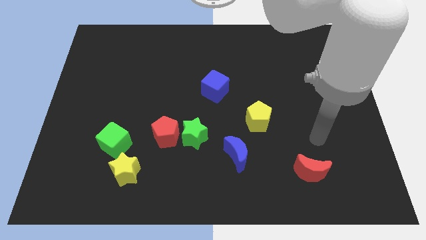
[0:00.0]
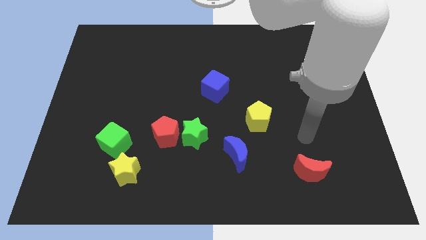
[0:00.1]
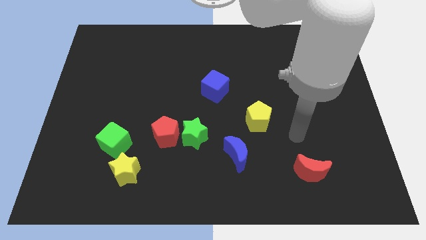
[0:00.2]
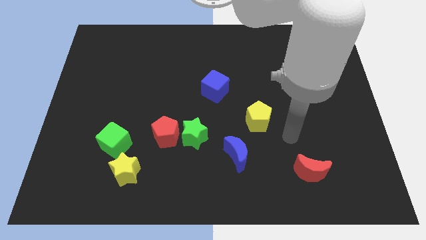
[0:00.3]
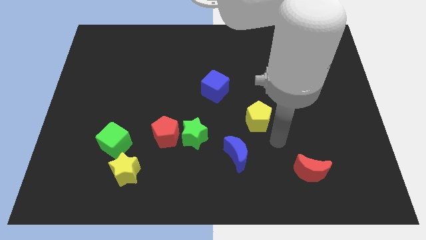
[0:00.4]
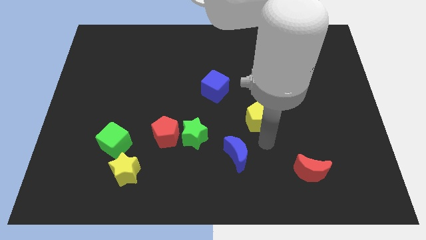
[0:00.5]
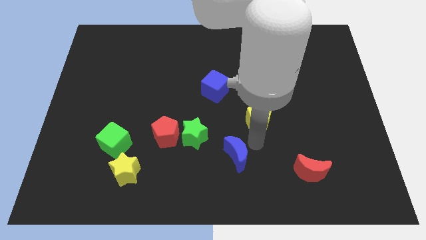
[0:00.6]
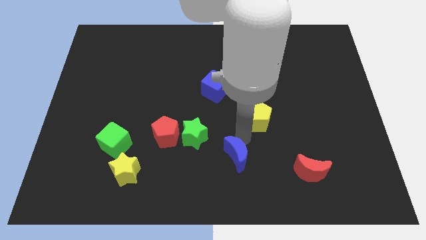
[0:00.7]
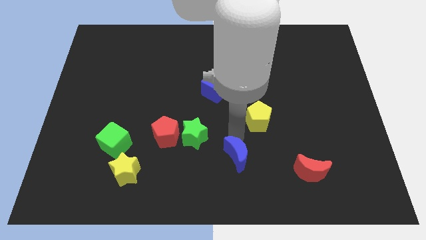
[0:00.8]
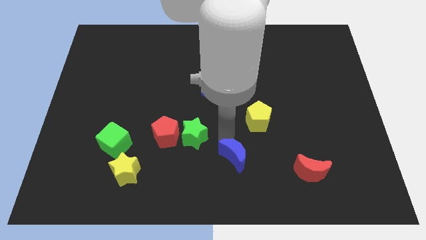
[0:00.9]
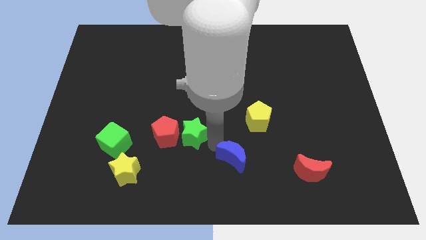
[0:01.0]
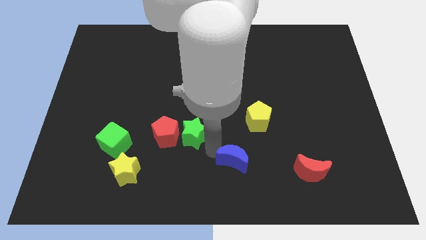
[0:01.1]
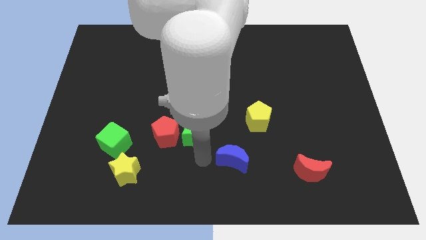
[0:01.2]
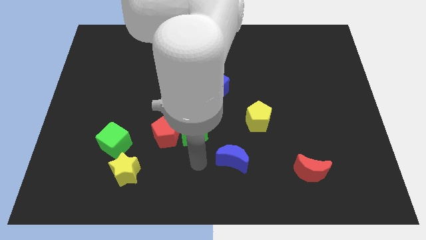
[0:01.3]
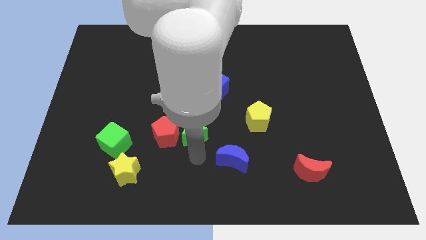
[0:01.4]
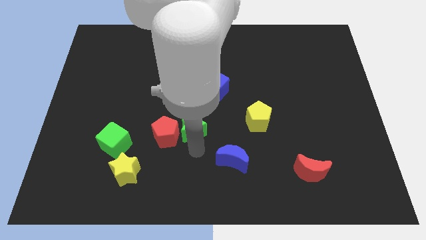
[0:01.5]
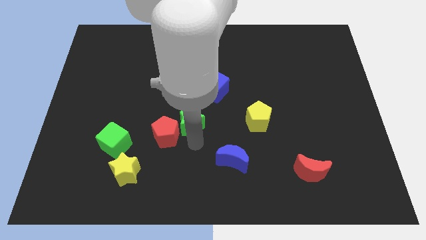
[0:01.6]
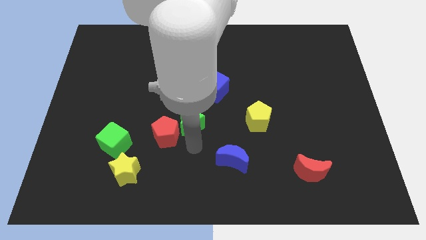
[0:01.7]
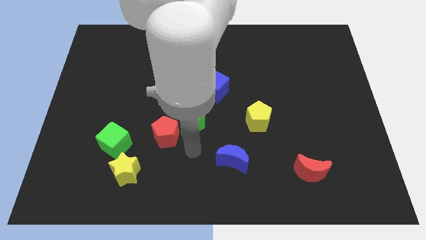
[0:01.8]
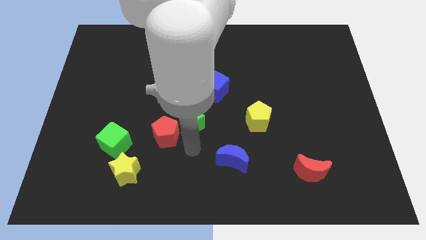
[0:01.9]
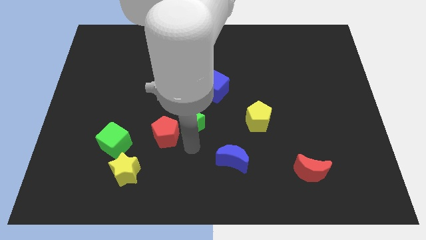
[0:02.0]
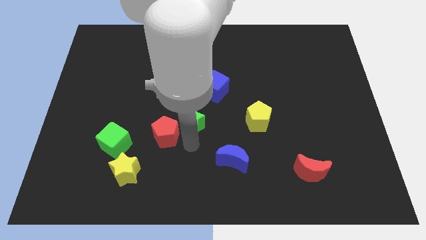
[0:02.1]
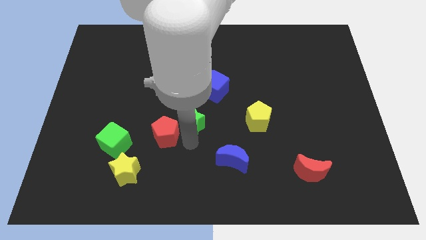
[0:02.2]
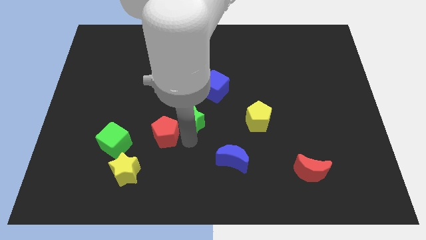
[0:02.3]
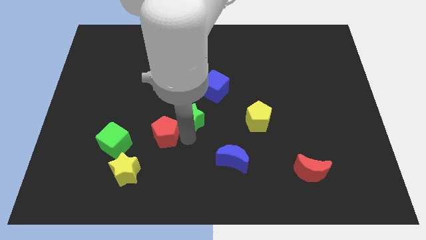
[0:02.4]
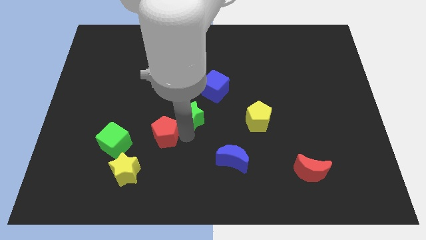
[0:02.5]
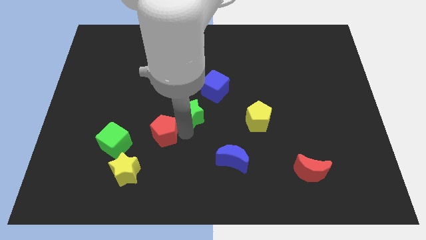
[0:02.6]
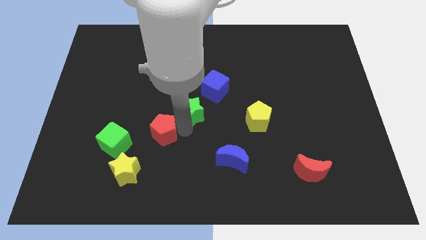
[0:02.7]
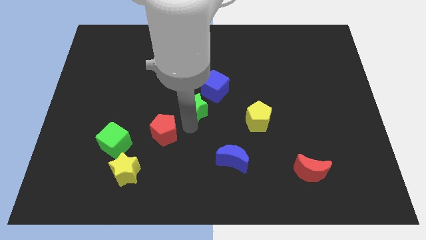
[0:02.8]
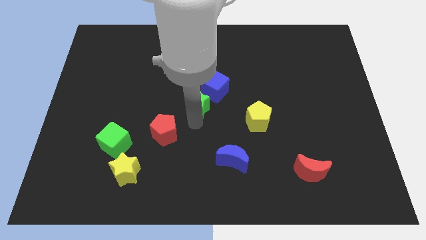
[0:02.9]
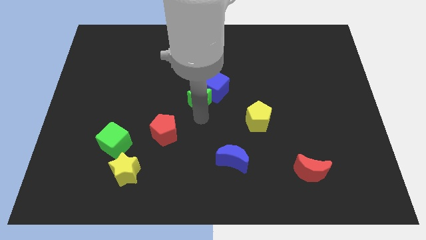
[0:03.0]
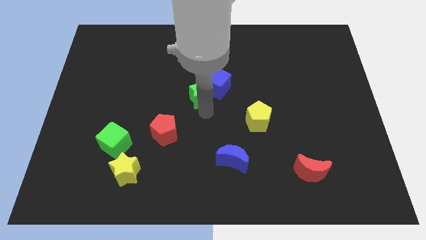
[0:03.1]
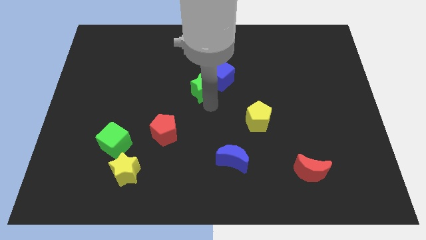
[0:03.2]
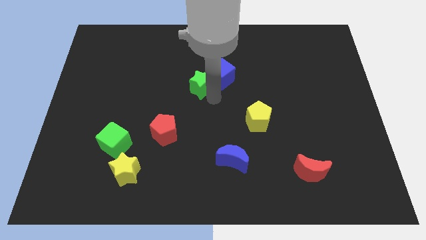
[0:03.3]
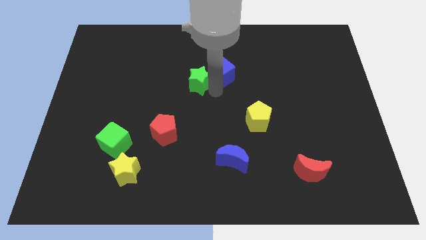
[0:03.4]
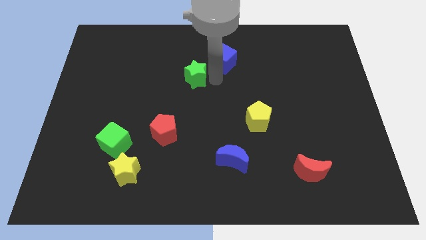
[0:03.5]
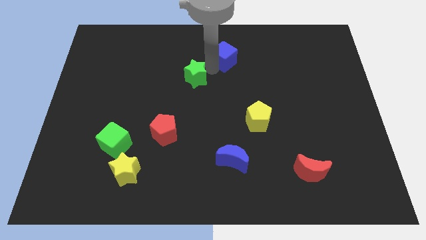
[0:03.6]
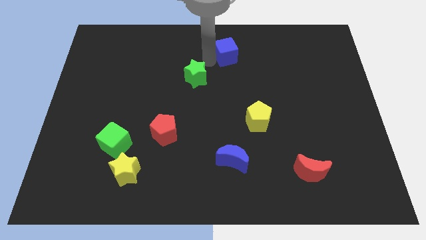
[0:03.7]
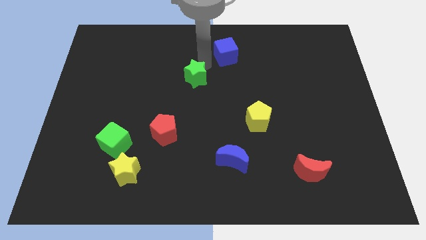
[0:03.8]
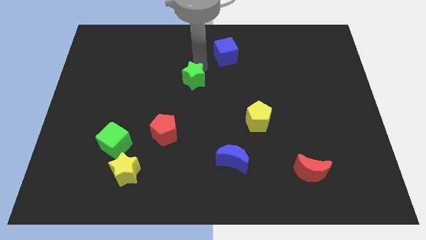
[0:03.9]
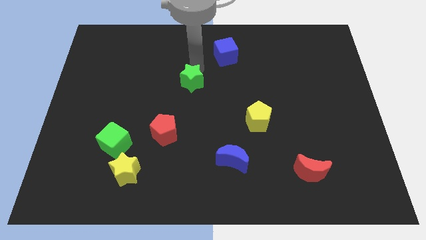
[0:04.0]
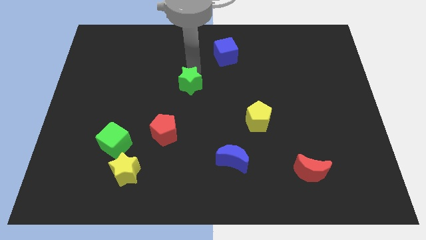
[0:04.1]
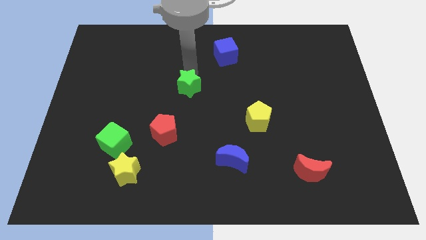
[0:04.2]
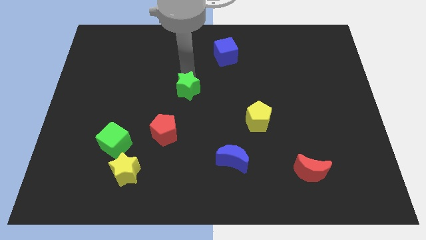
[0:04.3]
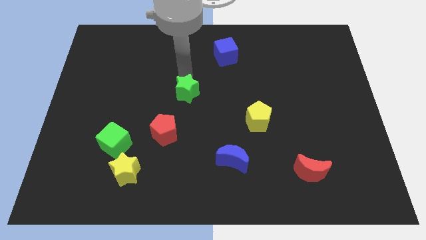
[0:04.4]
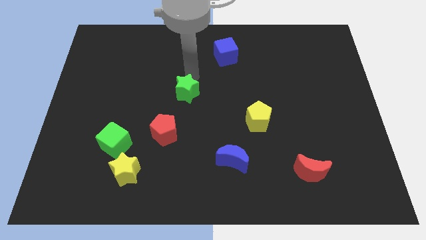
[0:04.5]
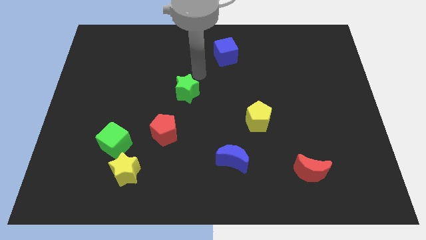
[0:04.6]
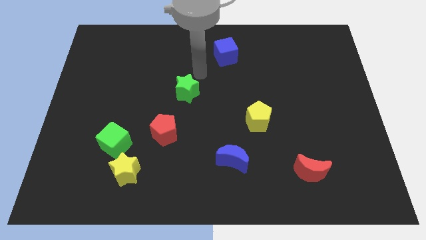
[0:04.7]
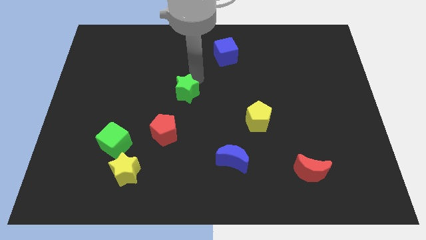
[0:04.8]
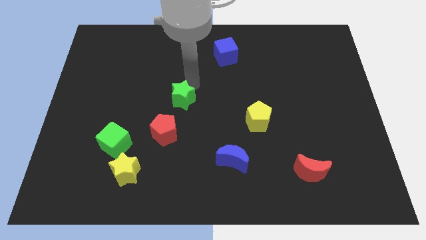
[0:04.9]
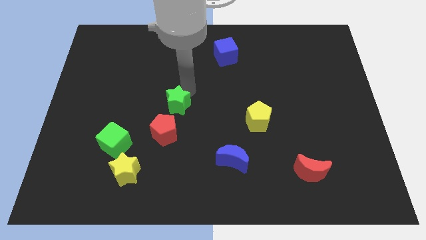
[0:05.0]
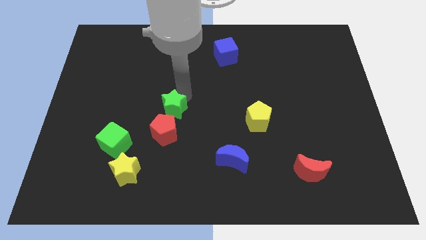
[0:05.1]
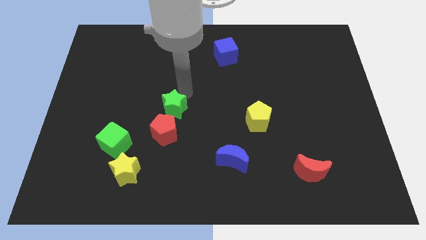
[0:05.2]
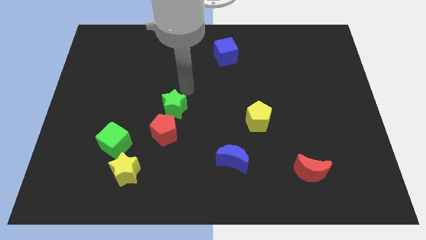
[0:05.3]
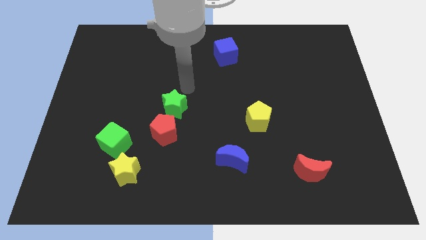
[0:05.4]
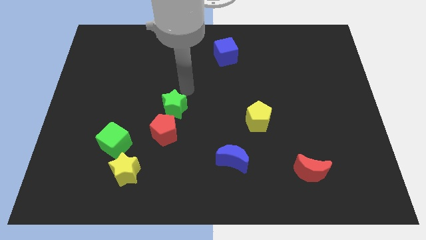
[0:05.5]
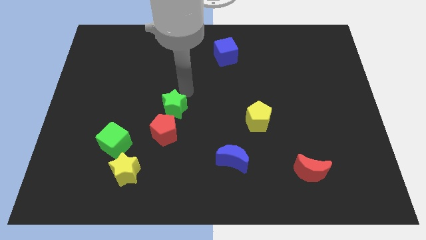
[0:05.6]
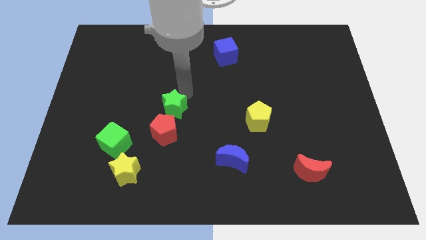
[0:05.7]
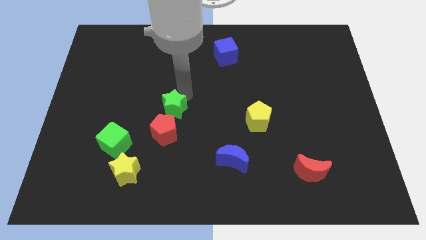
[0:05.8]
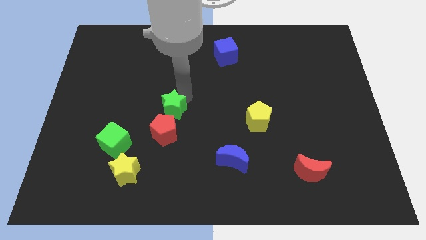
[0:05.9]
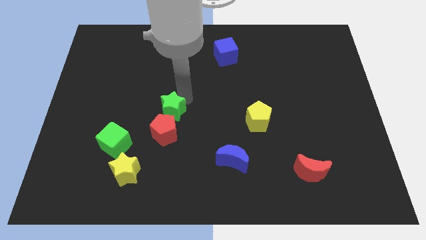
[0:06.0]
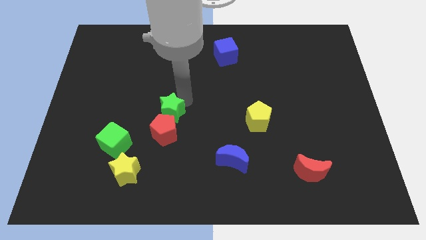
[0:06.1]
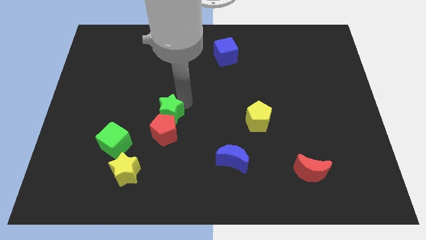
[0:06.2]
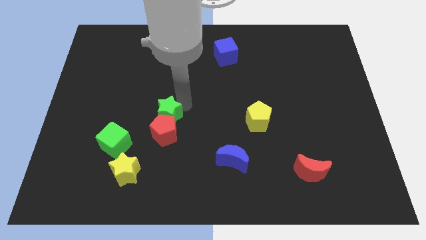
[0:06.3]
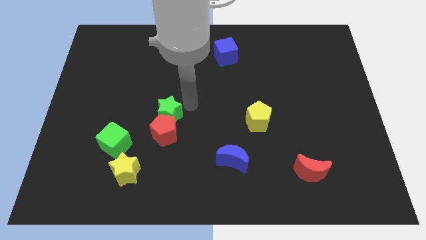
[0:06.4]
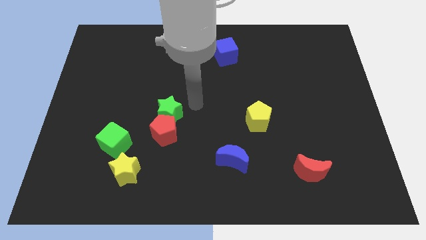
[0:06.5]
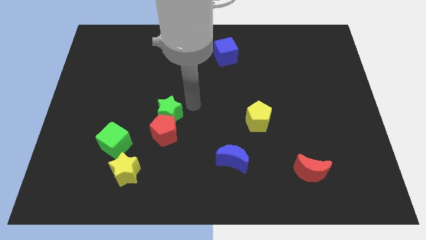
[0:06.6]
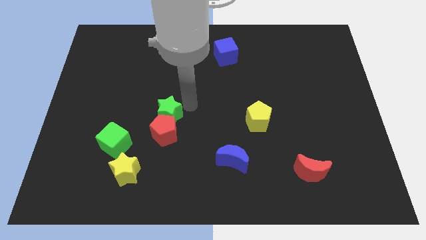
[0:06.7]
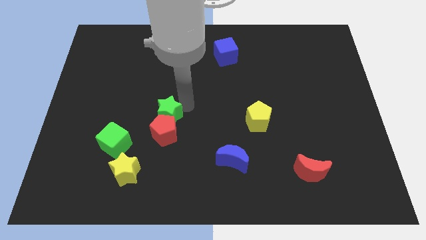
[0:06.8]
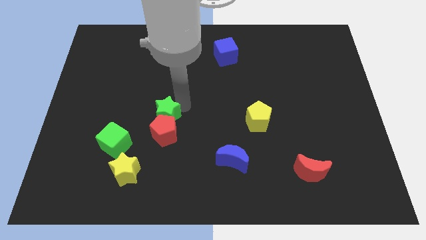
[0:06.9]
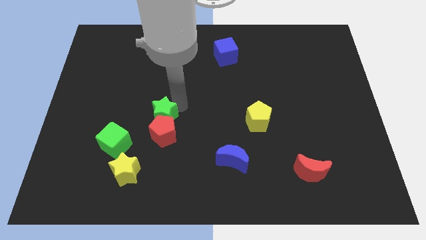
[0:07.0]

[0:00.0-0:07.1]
move the green star to the top right of the green cube
